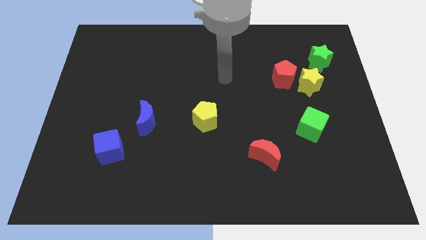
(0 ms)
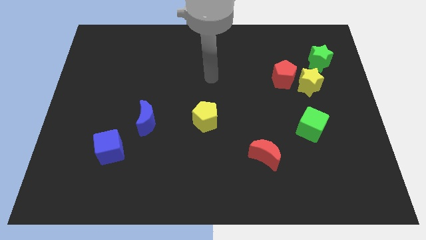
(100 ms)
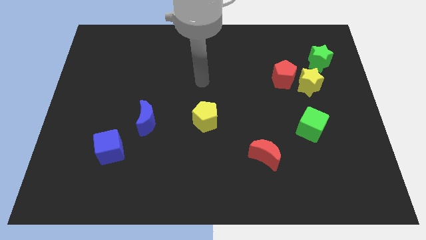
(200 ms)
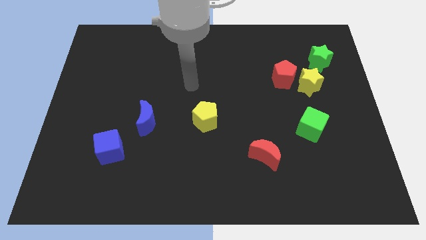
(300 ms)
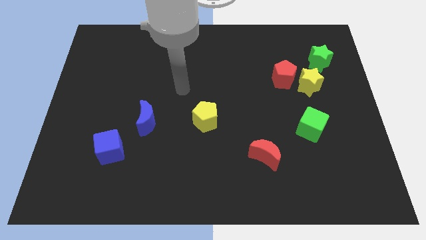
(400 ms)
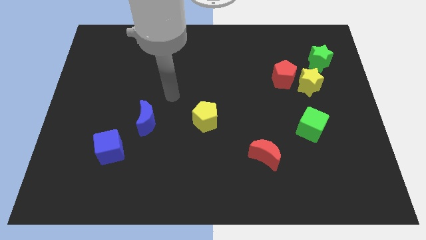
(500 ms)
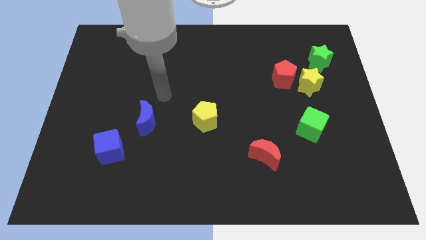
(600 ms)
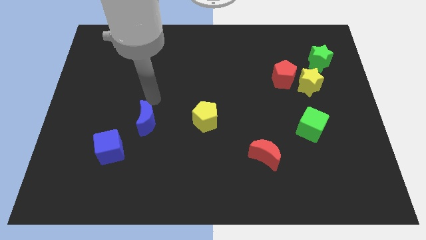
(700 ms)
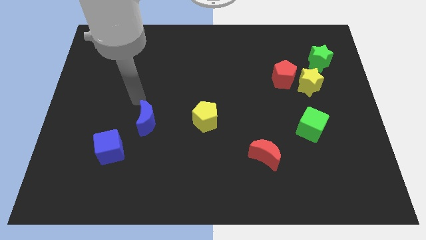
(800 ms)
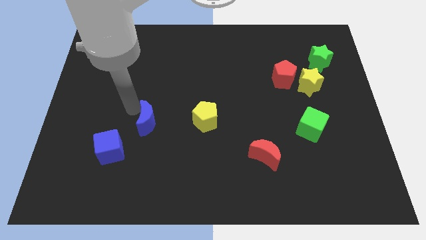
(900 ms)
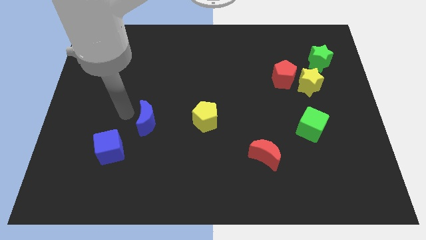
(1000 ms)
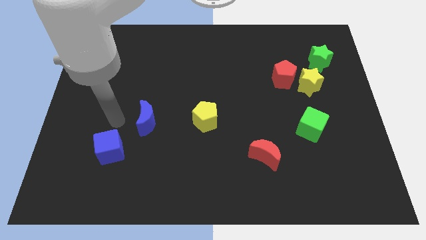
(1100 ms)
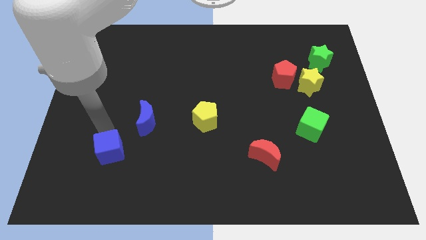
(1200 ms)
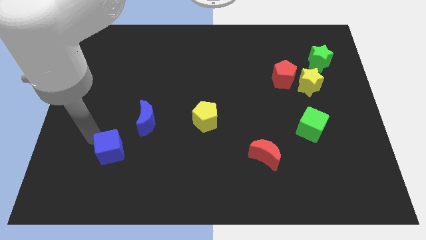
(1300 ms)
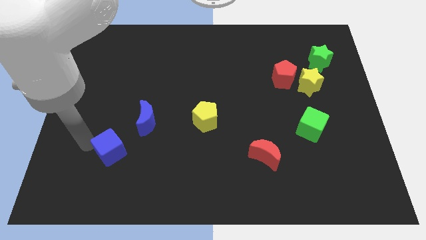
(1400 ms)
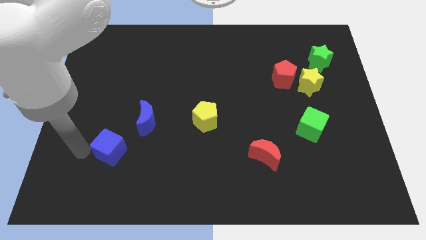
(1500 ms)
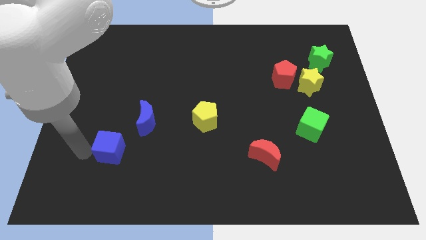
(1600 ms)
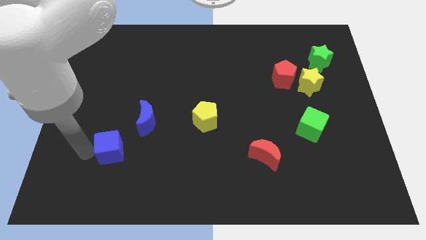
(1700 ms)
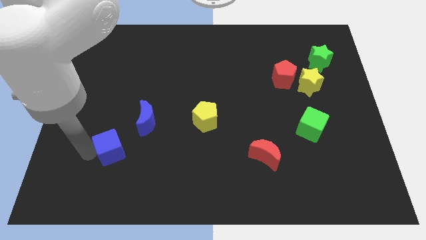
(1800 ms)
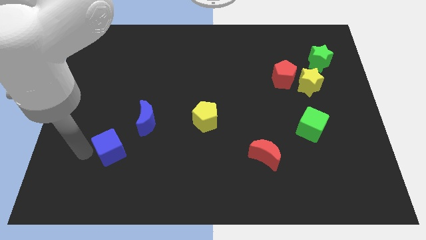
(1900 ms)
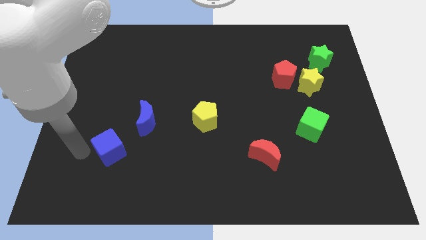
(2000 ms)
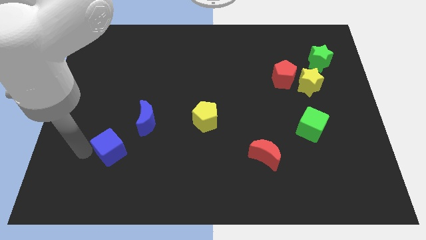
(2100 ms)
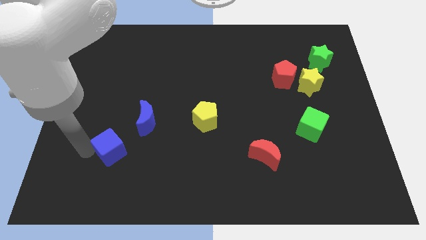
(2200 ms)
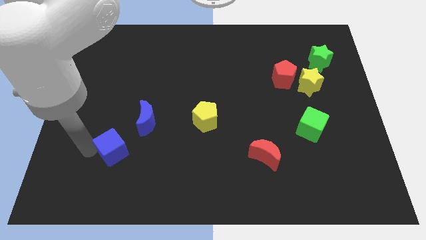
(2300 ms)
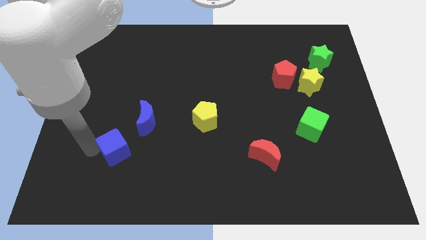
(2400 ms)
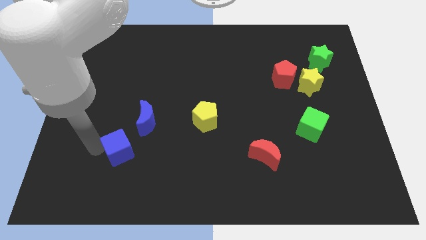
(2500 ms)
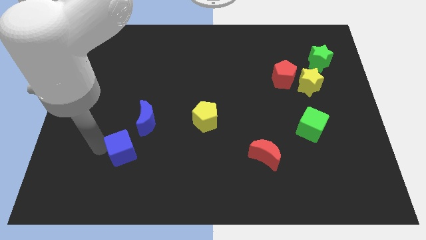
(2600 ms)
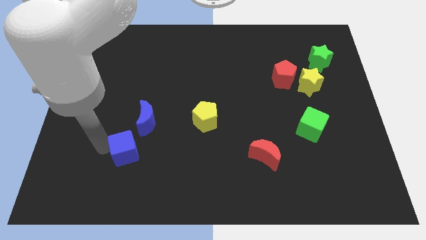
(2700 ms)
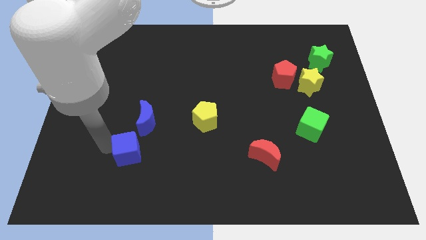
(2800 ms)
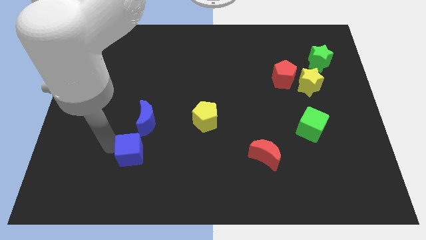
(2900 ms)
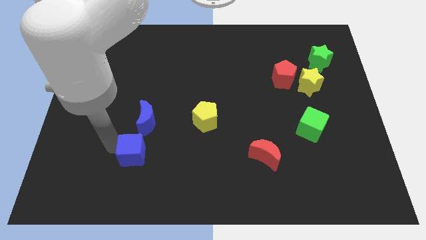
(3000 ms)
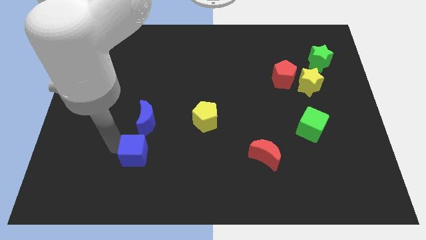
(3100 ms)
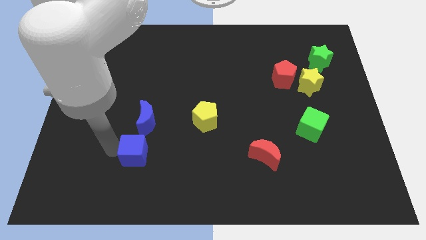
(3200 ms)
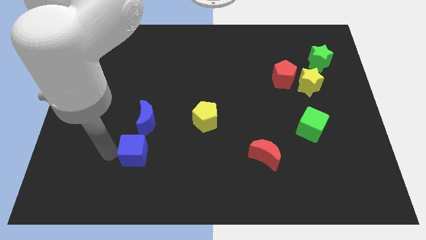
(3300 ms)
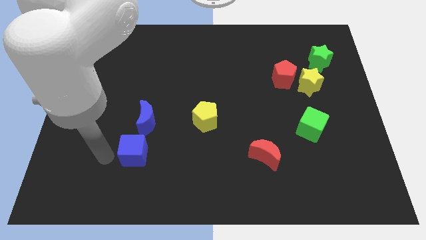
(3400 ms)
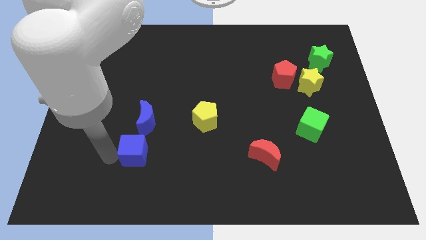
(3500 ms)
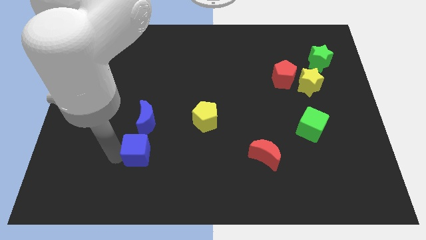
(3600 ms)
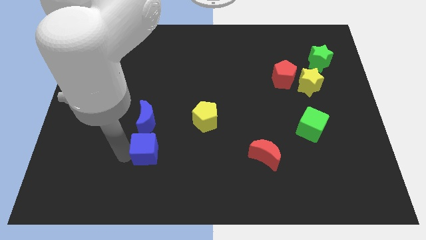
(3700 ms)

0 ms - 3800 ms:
slightly slide the blue cube right

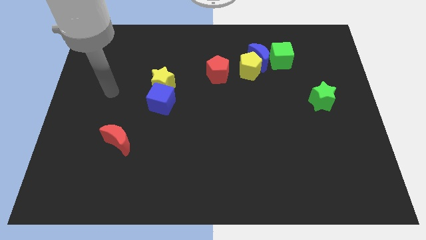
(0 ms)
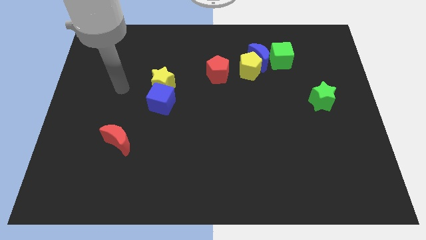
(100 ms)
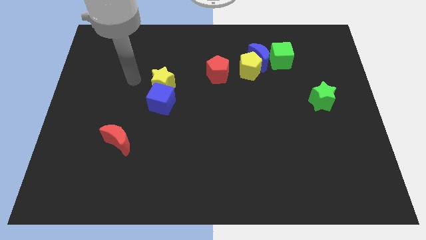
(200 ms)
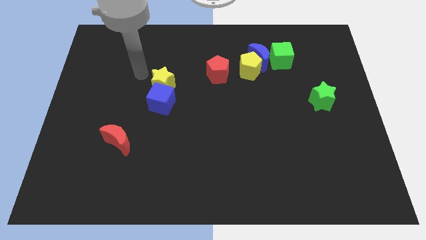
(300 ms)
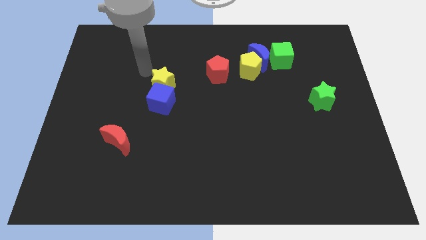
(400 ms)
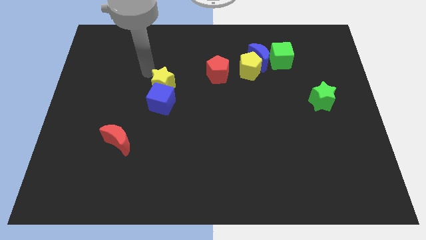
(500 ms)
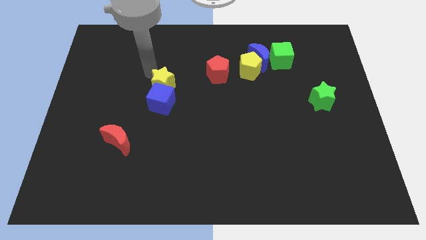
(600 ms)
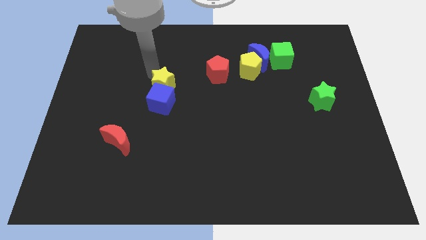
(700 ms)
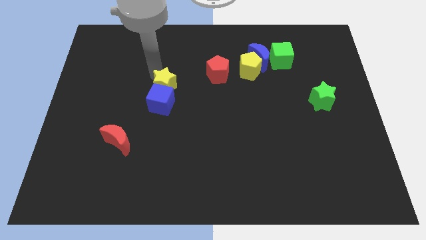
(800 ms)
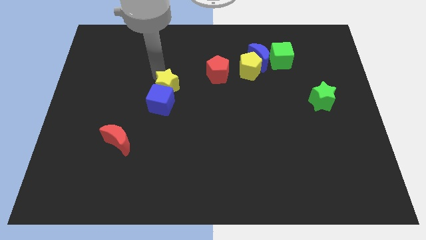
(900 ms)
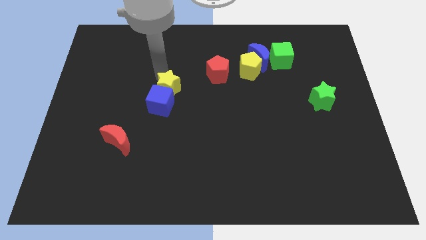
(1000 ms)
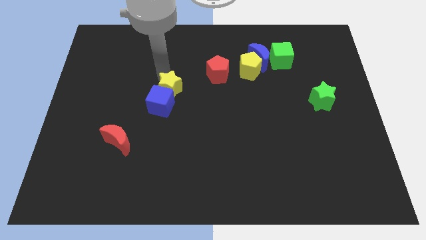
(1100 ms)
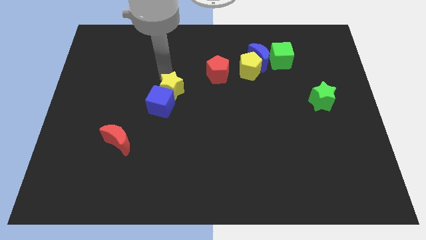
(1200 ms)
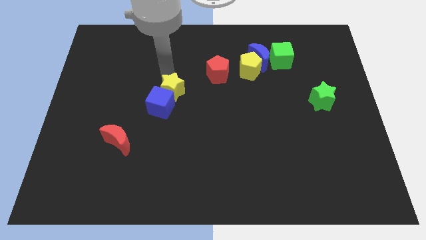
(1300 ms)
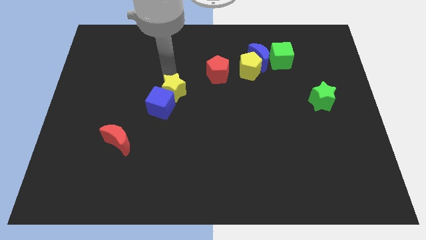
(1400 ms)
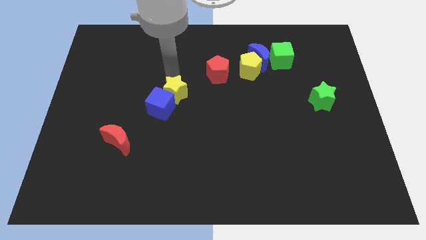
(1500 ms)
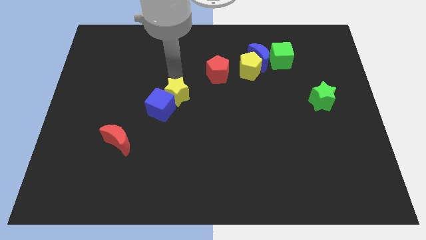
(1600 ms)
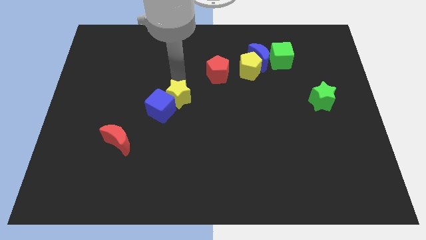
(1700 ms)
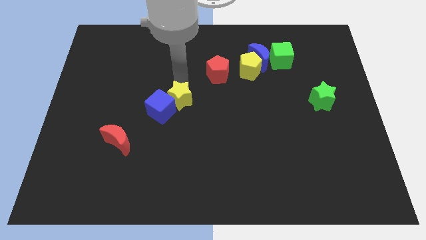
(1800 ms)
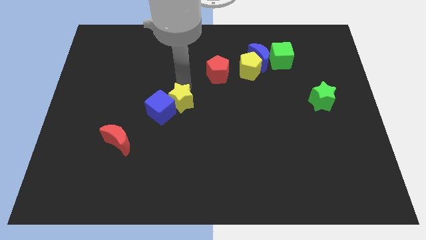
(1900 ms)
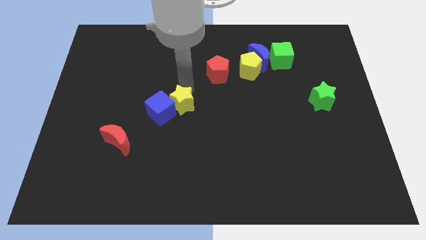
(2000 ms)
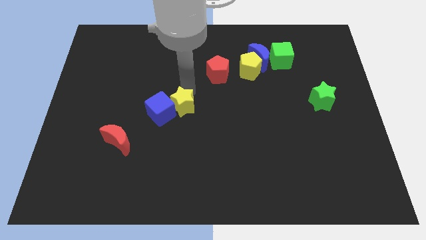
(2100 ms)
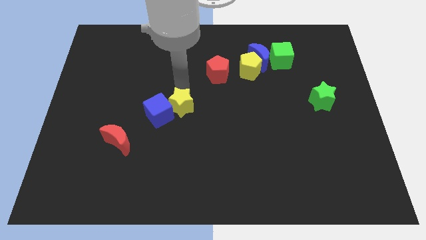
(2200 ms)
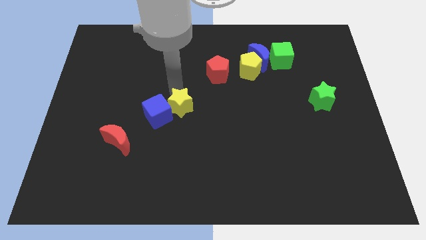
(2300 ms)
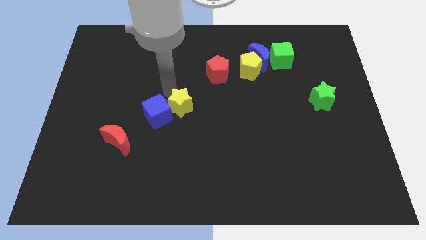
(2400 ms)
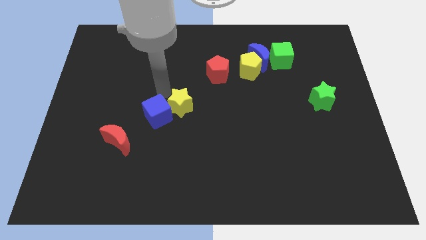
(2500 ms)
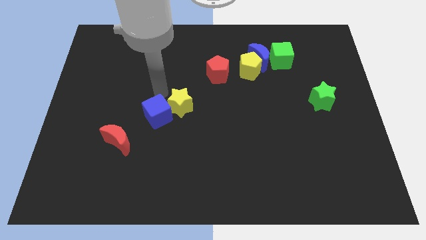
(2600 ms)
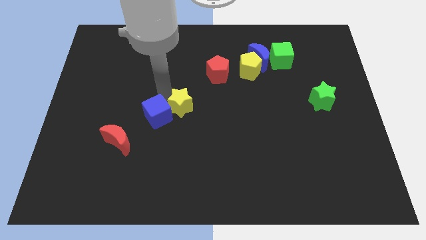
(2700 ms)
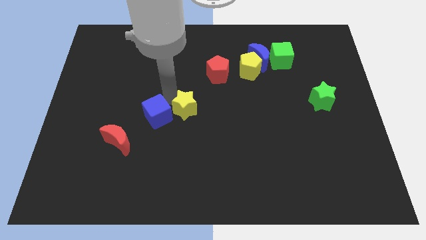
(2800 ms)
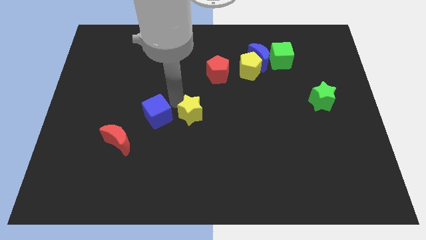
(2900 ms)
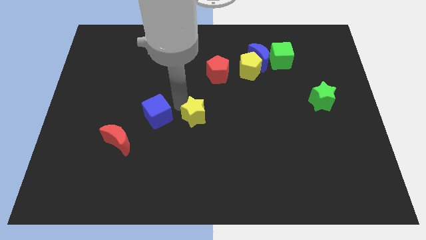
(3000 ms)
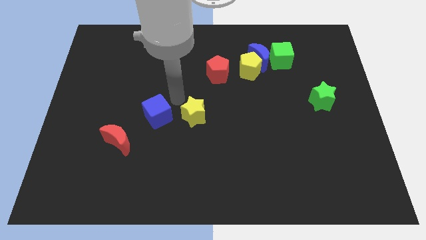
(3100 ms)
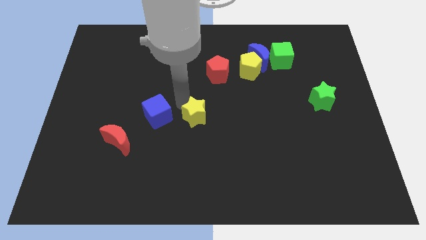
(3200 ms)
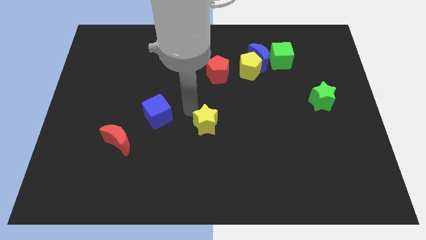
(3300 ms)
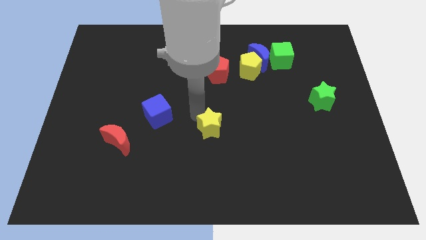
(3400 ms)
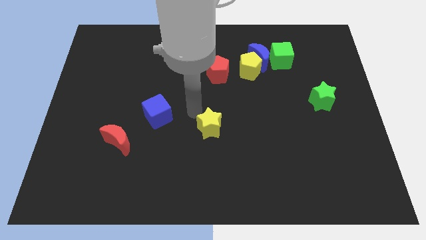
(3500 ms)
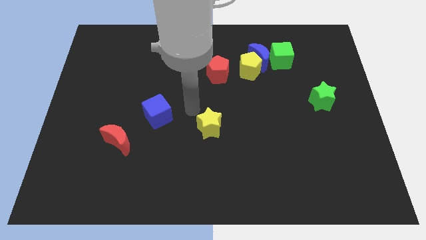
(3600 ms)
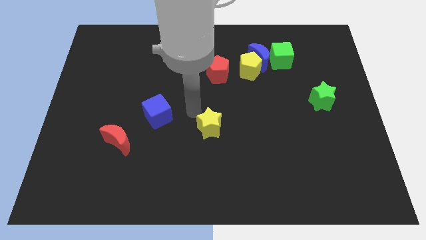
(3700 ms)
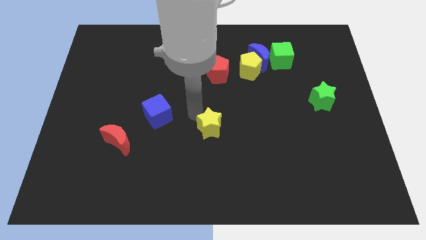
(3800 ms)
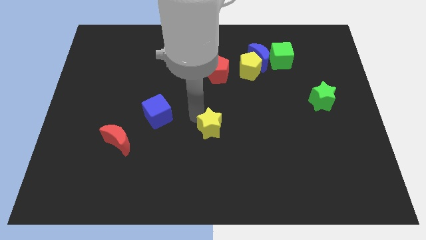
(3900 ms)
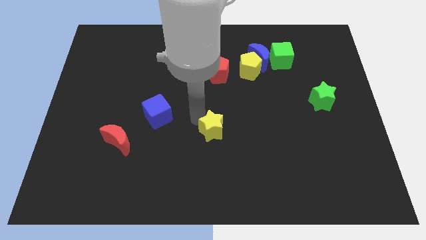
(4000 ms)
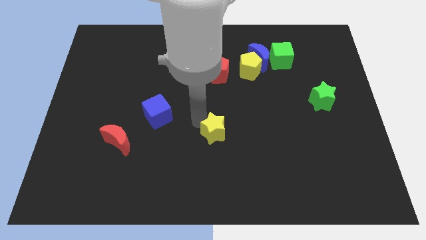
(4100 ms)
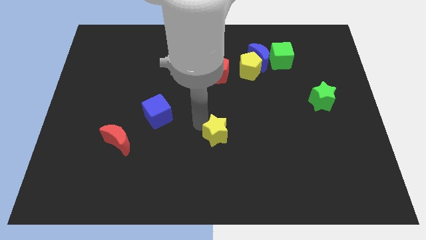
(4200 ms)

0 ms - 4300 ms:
slide the yellow star diagonally down and right

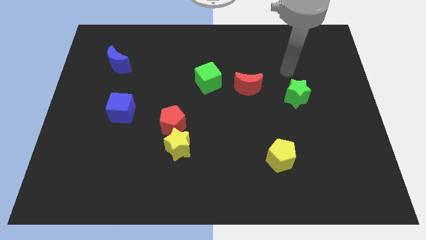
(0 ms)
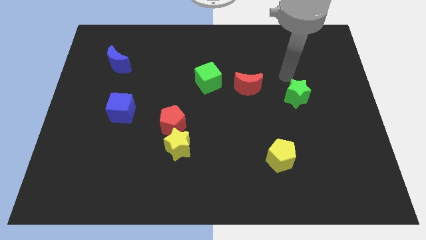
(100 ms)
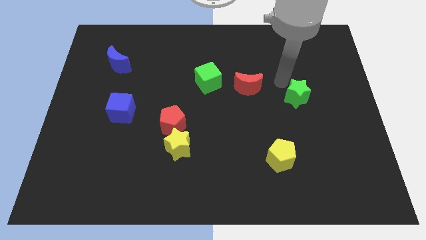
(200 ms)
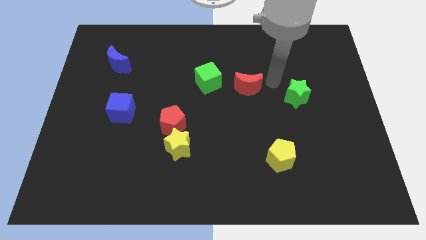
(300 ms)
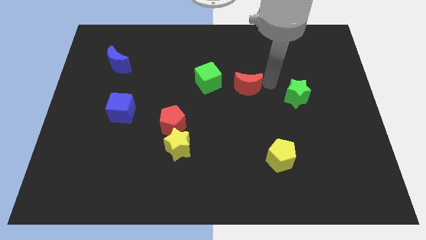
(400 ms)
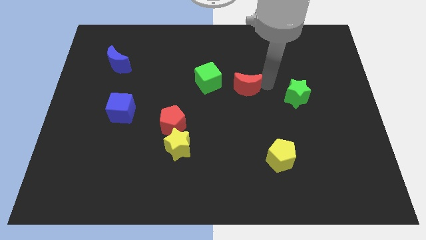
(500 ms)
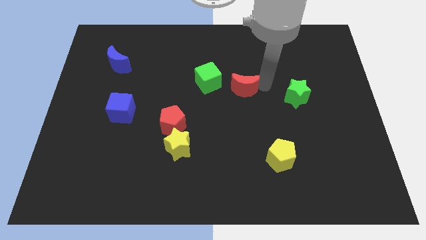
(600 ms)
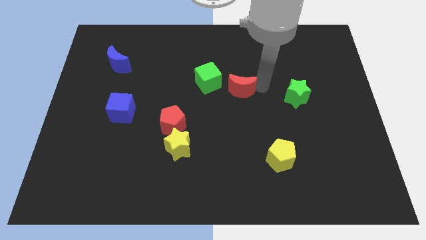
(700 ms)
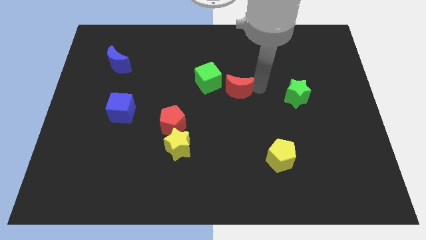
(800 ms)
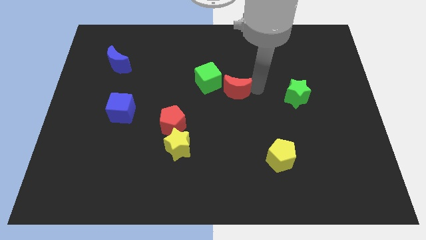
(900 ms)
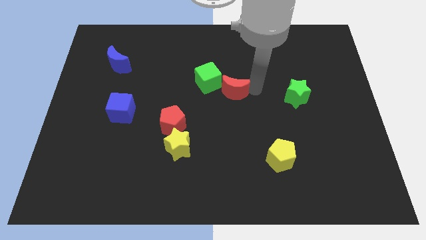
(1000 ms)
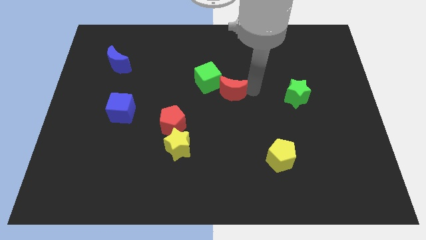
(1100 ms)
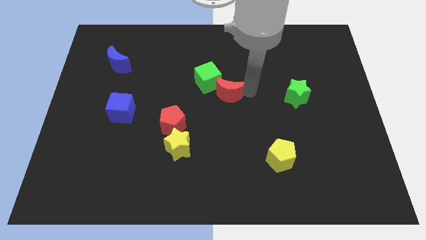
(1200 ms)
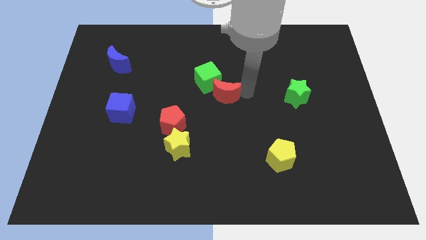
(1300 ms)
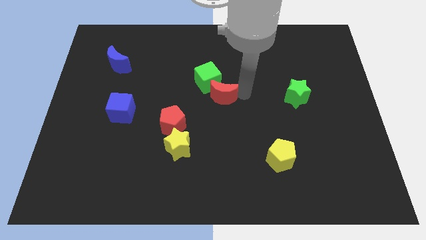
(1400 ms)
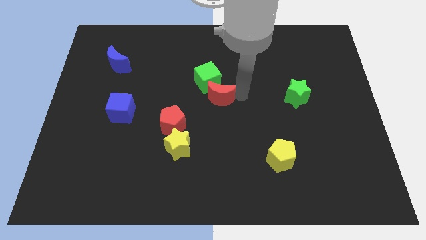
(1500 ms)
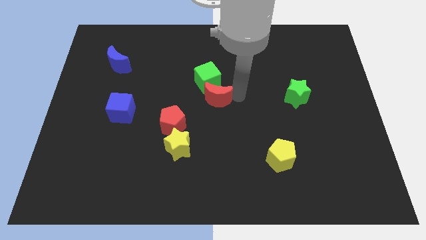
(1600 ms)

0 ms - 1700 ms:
move the red moon a little to the left
